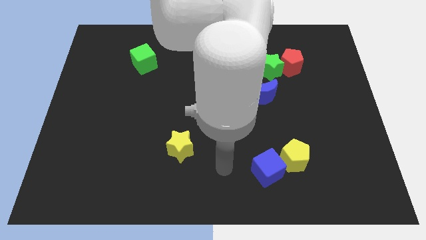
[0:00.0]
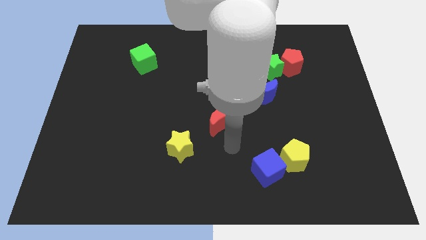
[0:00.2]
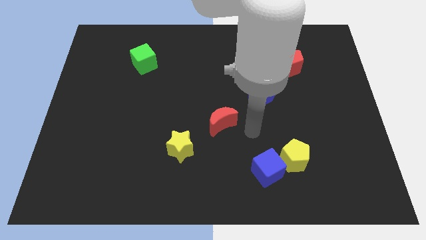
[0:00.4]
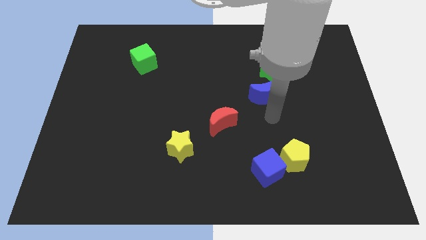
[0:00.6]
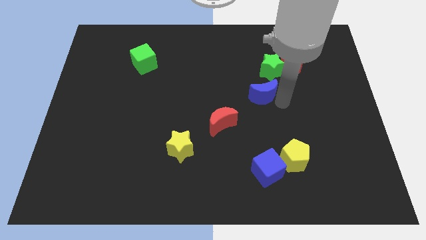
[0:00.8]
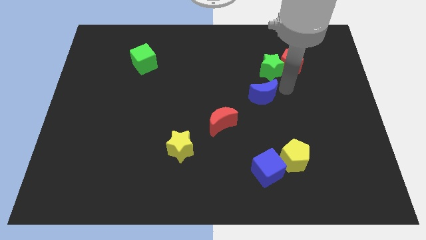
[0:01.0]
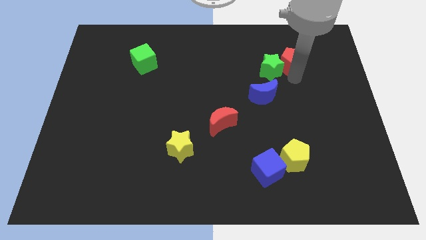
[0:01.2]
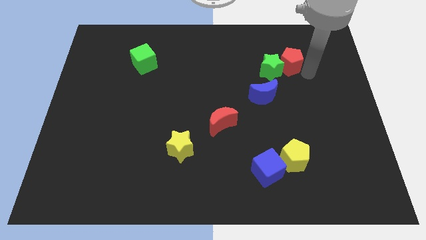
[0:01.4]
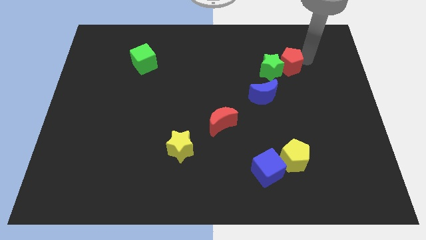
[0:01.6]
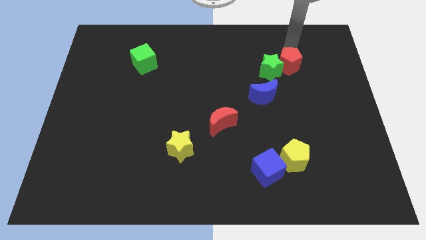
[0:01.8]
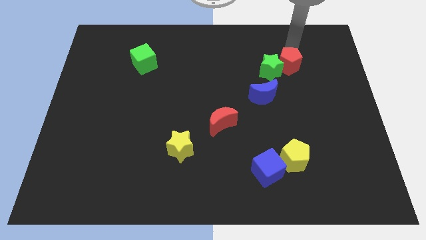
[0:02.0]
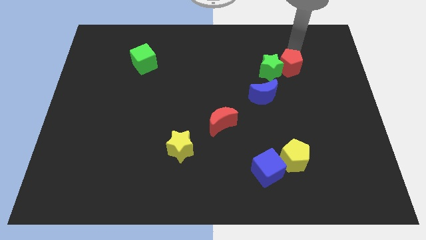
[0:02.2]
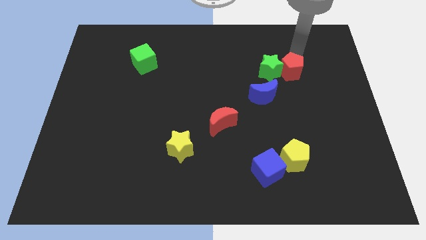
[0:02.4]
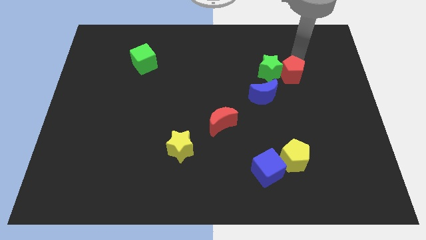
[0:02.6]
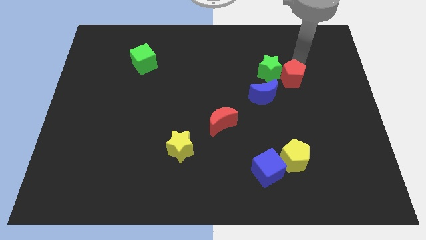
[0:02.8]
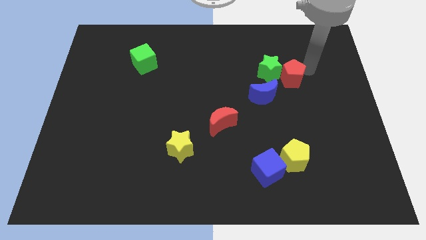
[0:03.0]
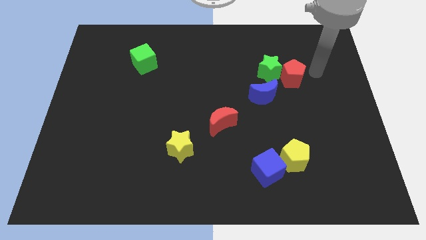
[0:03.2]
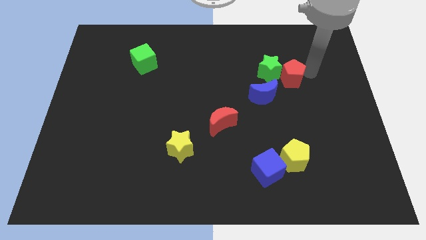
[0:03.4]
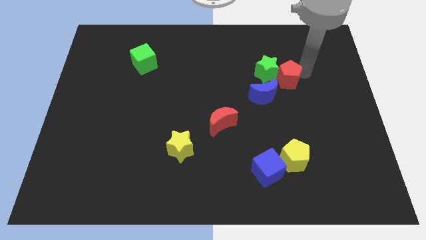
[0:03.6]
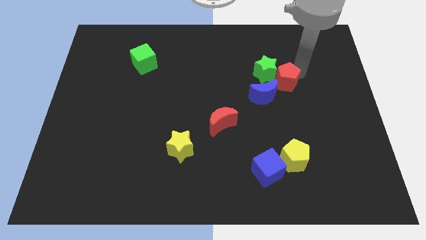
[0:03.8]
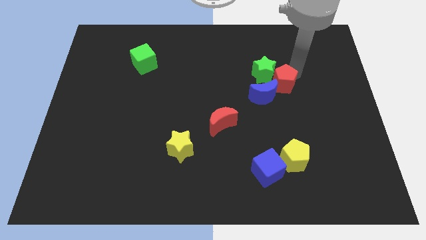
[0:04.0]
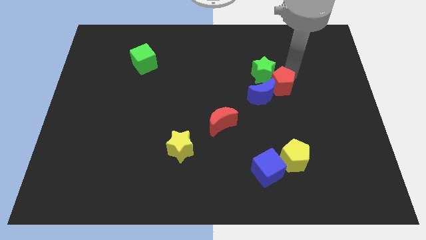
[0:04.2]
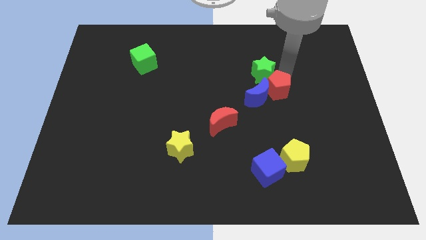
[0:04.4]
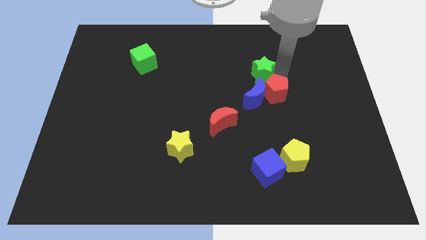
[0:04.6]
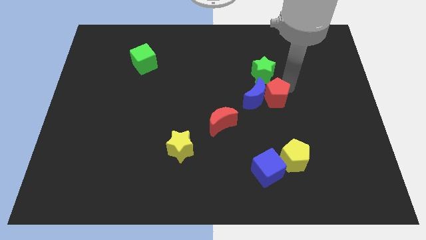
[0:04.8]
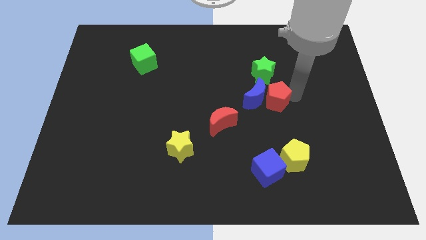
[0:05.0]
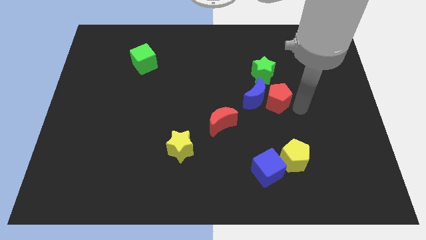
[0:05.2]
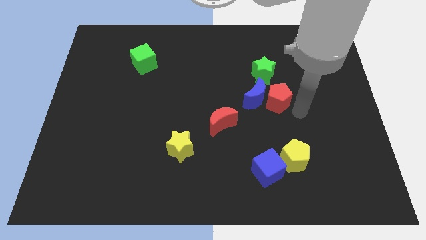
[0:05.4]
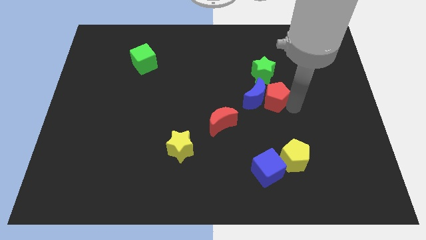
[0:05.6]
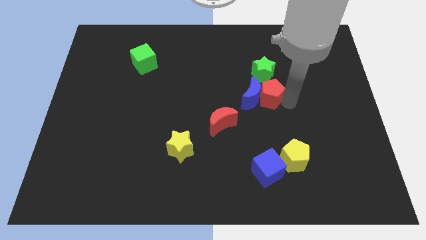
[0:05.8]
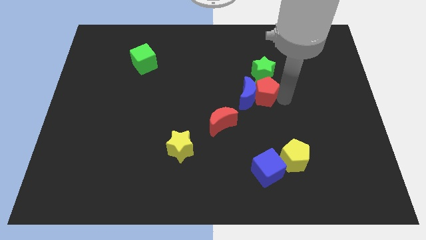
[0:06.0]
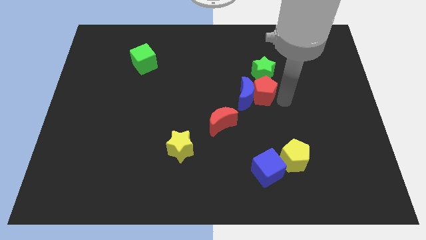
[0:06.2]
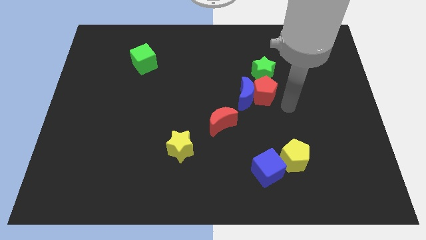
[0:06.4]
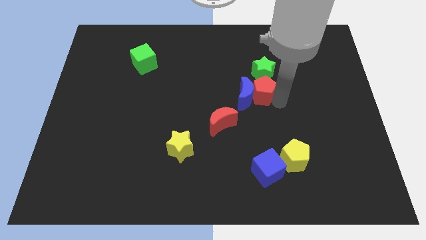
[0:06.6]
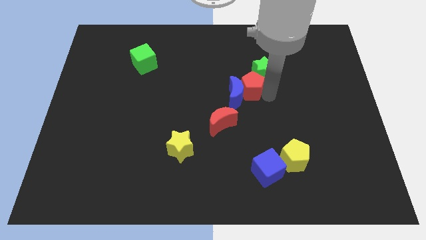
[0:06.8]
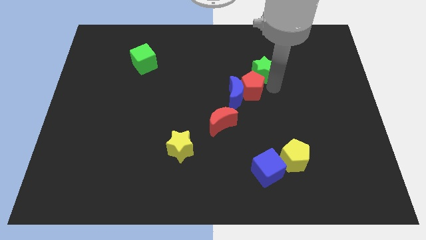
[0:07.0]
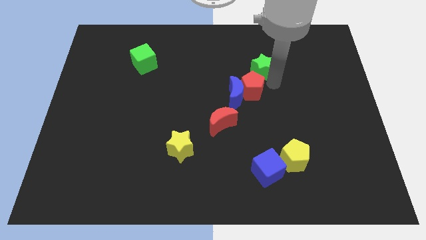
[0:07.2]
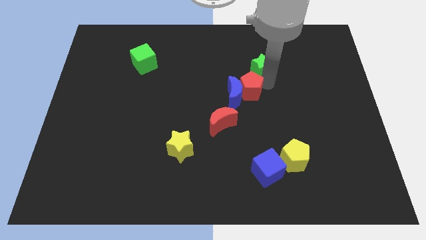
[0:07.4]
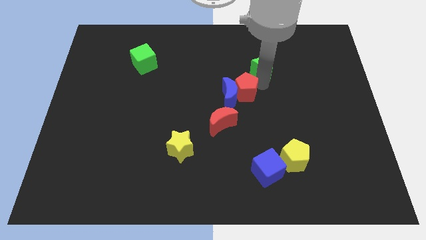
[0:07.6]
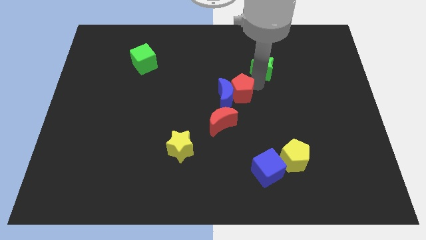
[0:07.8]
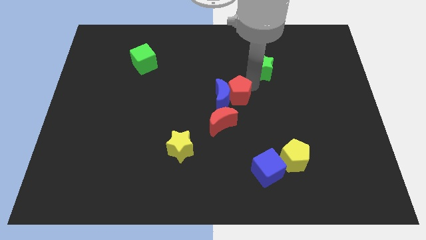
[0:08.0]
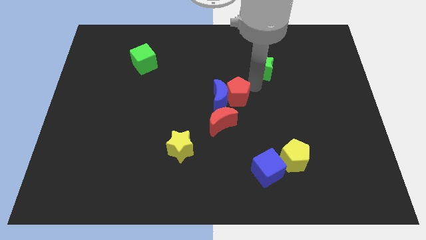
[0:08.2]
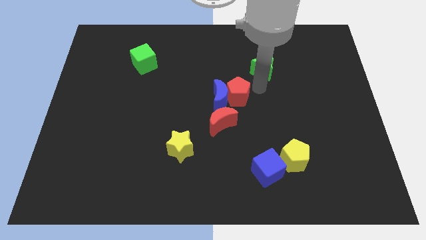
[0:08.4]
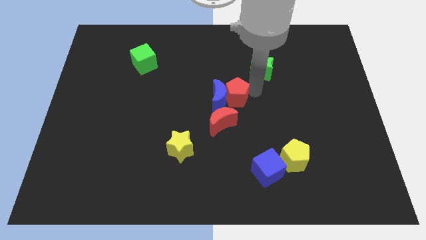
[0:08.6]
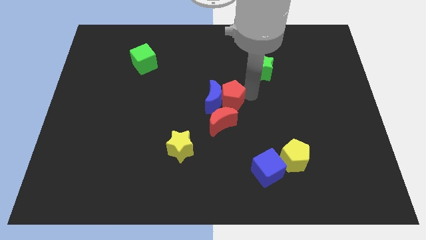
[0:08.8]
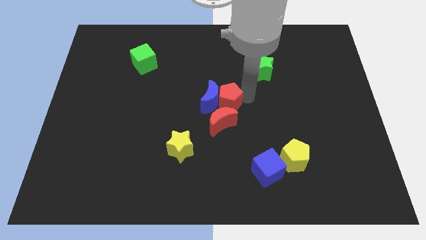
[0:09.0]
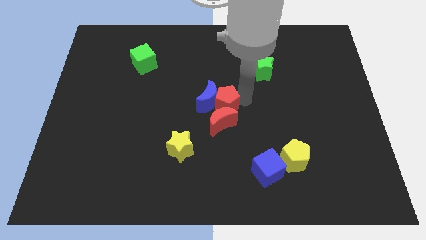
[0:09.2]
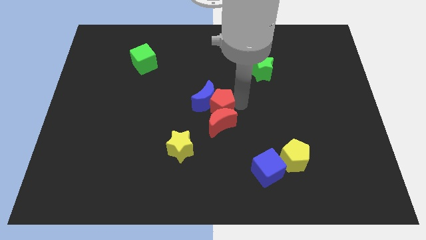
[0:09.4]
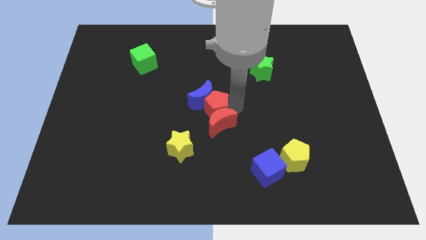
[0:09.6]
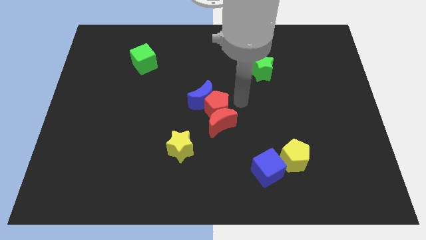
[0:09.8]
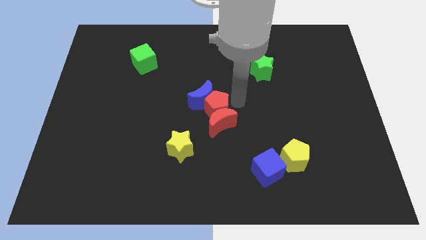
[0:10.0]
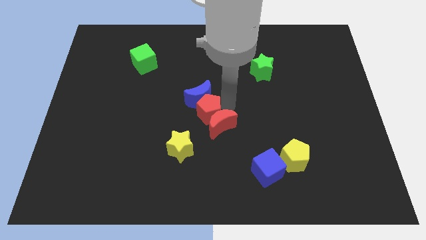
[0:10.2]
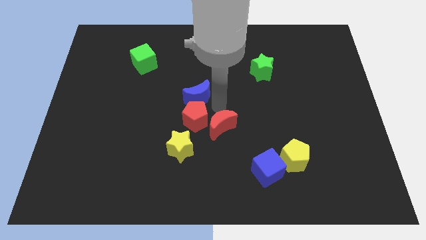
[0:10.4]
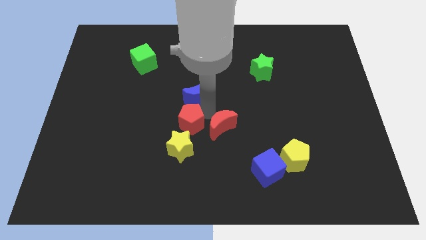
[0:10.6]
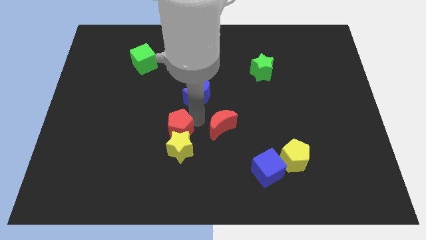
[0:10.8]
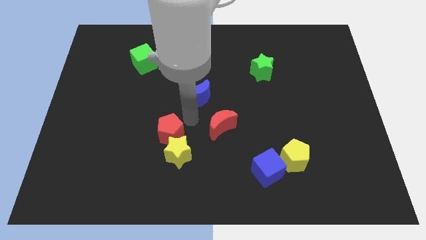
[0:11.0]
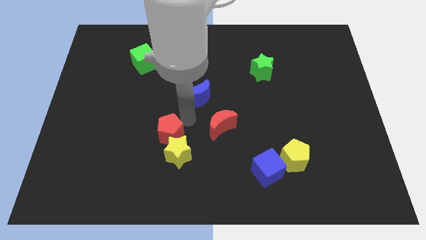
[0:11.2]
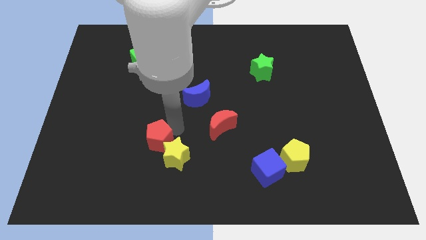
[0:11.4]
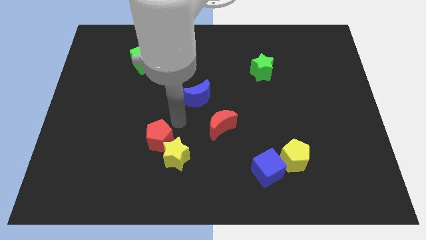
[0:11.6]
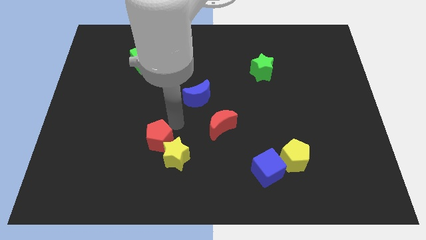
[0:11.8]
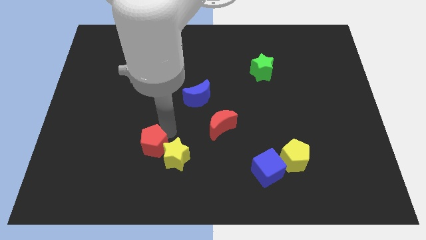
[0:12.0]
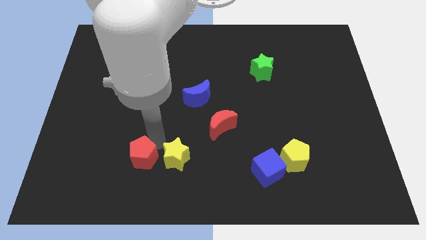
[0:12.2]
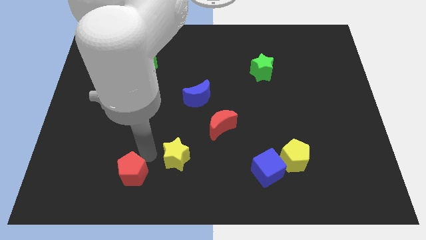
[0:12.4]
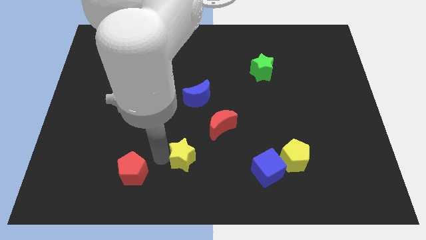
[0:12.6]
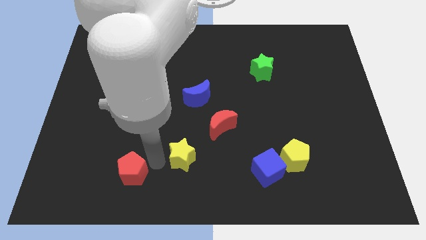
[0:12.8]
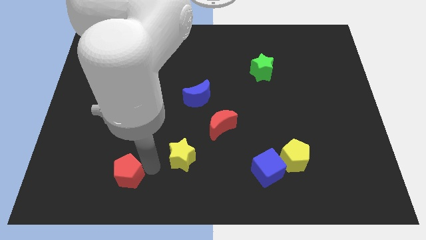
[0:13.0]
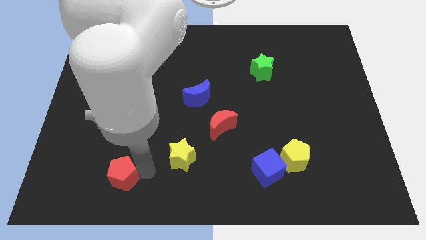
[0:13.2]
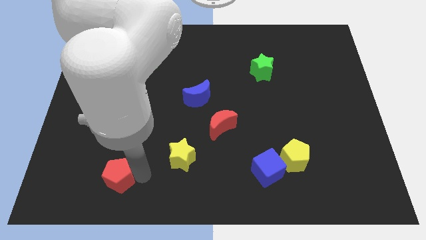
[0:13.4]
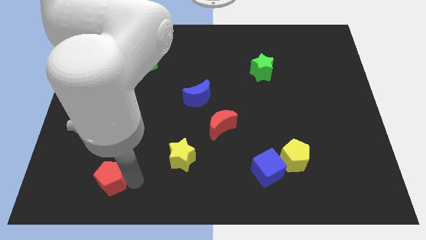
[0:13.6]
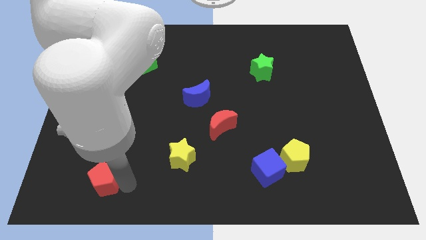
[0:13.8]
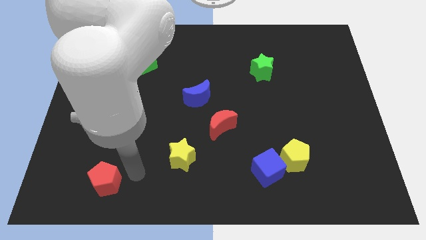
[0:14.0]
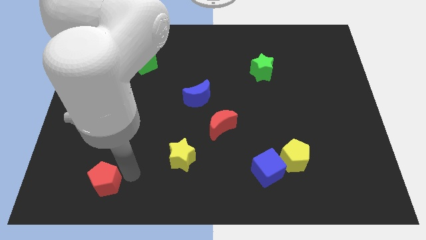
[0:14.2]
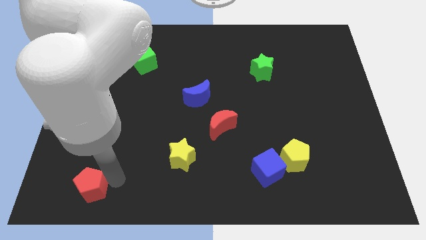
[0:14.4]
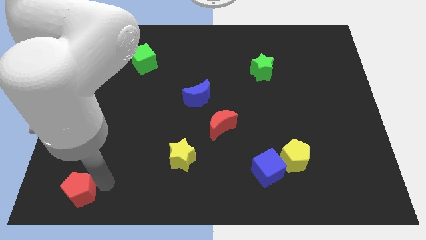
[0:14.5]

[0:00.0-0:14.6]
slide the red pentagon to the bottom left corner

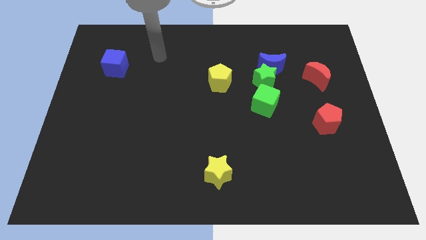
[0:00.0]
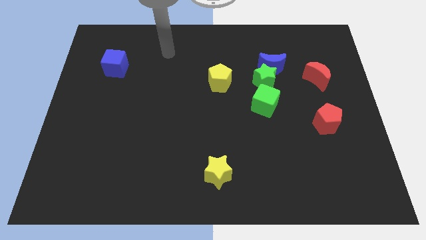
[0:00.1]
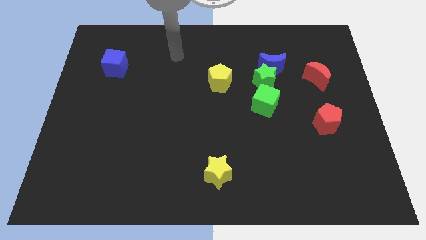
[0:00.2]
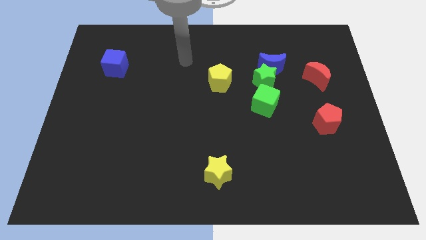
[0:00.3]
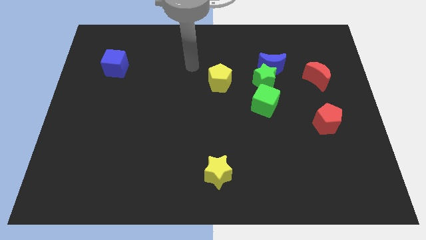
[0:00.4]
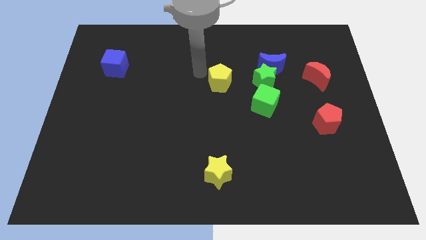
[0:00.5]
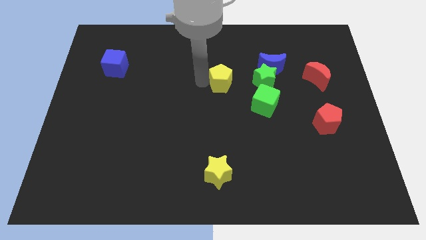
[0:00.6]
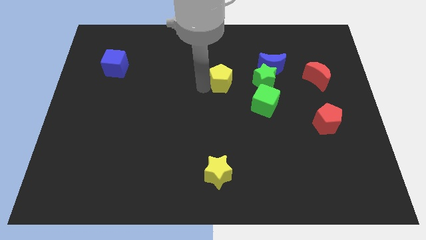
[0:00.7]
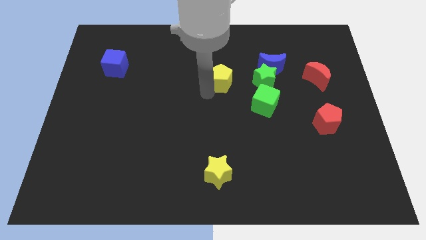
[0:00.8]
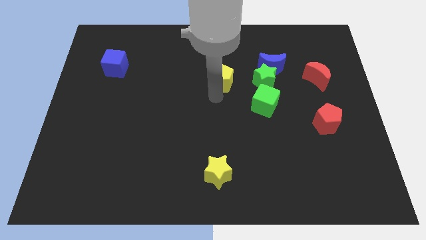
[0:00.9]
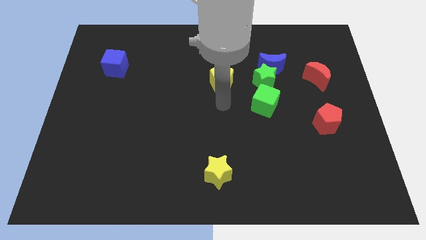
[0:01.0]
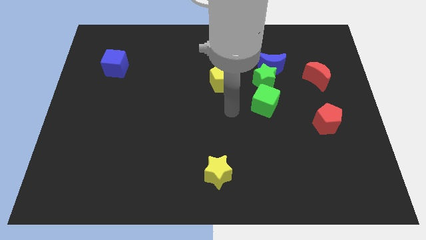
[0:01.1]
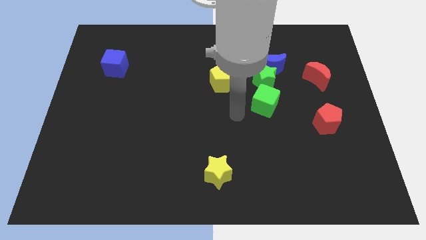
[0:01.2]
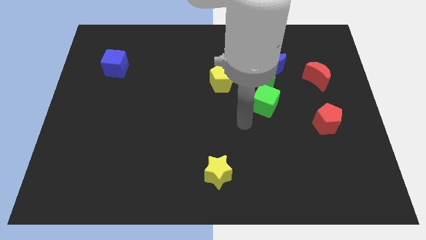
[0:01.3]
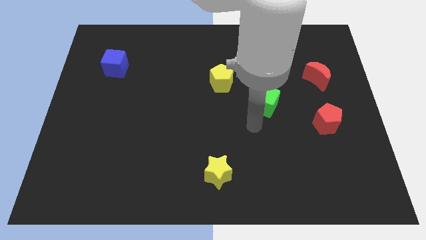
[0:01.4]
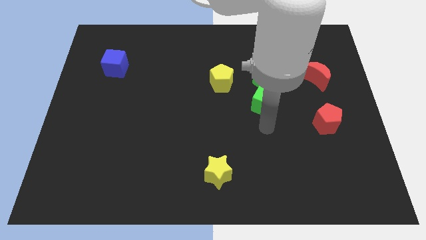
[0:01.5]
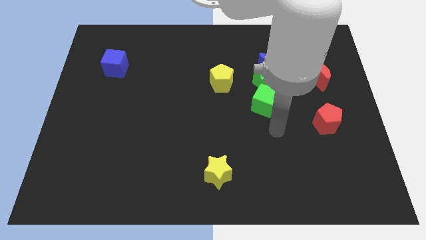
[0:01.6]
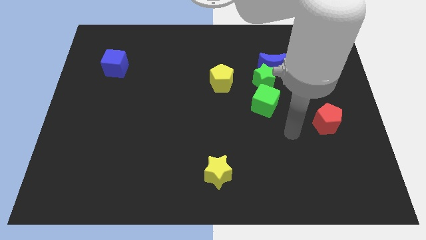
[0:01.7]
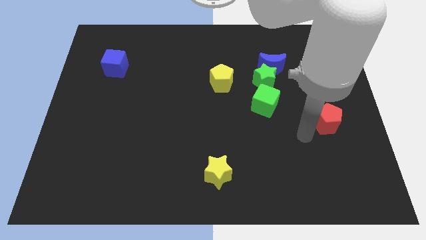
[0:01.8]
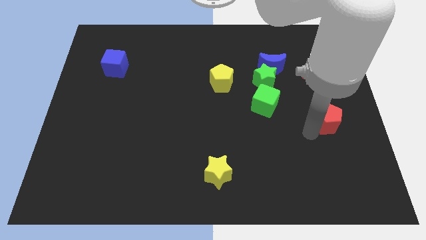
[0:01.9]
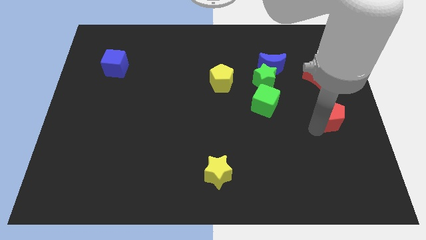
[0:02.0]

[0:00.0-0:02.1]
push the red pentagon to the right side
